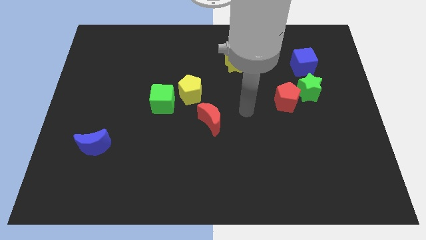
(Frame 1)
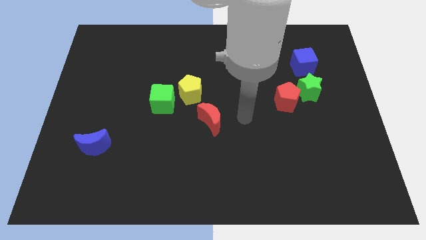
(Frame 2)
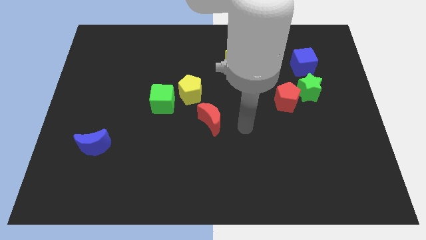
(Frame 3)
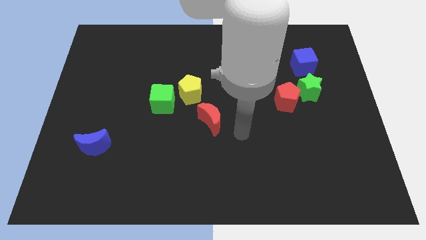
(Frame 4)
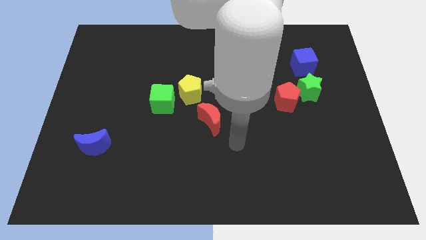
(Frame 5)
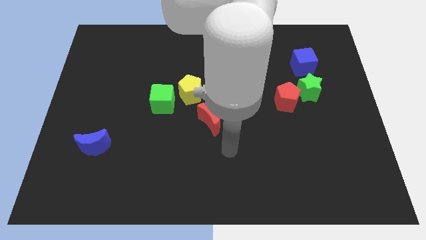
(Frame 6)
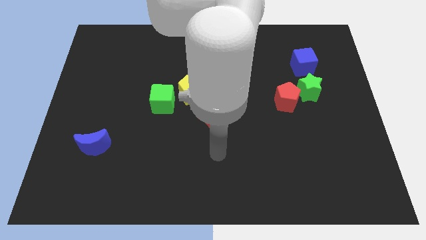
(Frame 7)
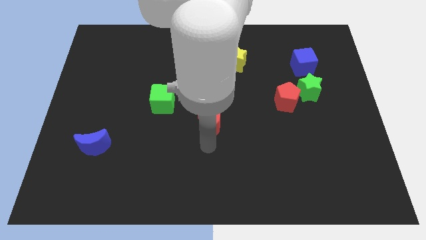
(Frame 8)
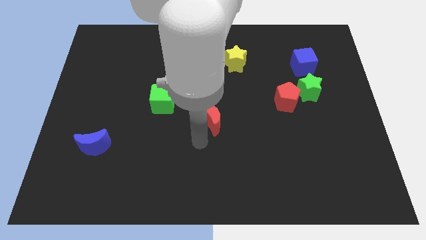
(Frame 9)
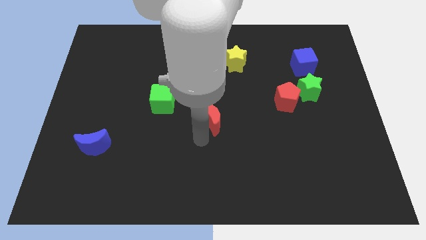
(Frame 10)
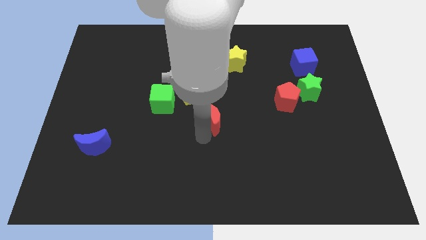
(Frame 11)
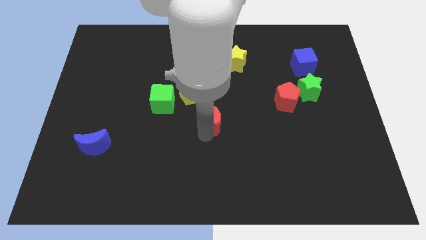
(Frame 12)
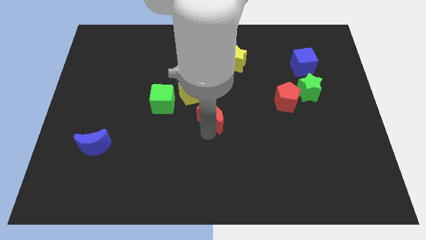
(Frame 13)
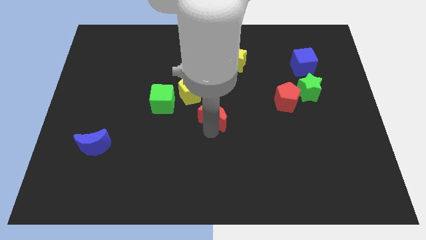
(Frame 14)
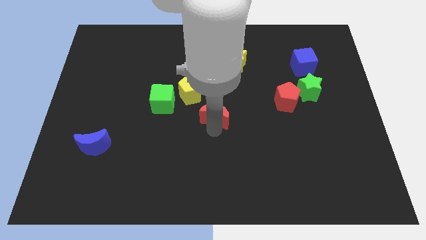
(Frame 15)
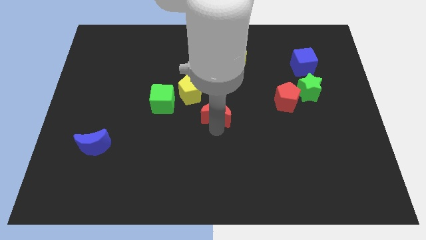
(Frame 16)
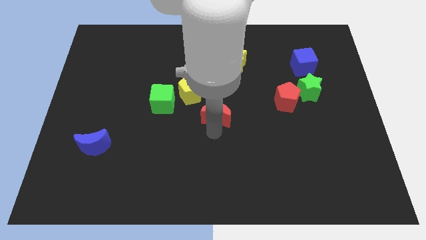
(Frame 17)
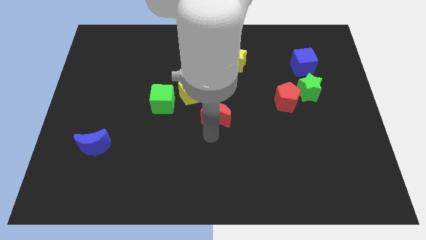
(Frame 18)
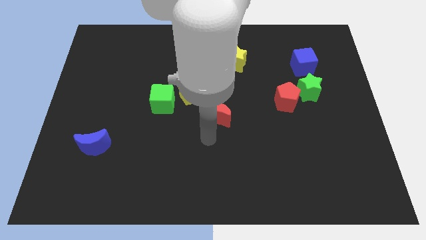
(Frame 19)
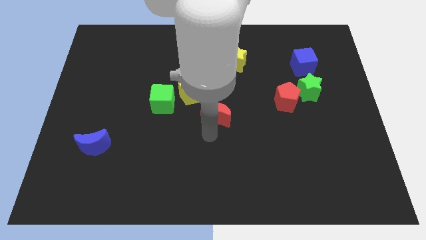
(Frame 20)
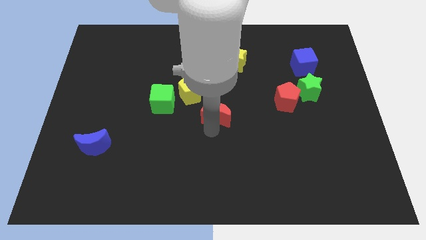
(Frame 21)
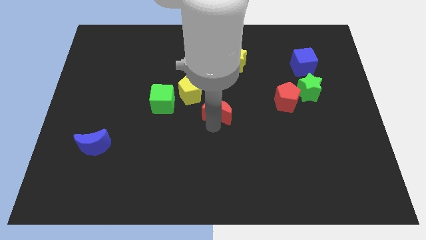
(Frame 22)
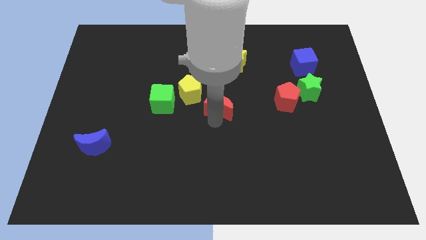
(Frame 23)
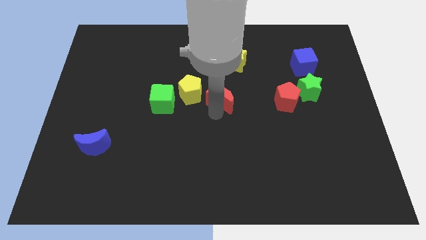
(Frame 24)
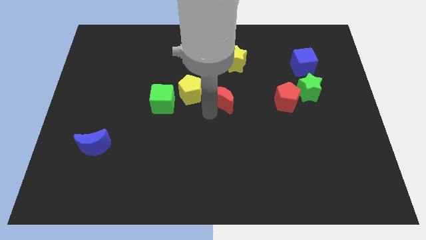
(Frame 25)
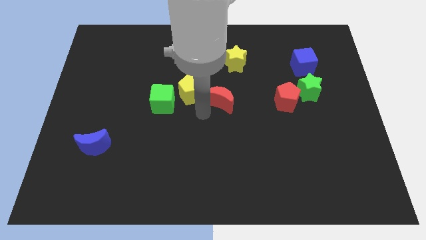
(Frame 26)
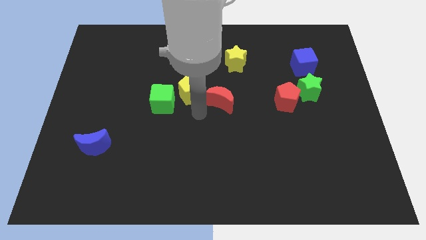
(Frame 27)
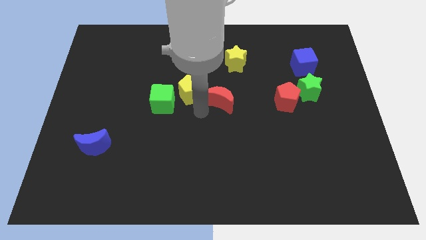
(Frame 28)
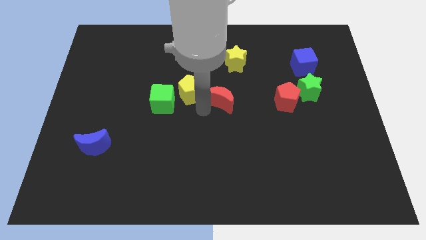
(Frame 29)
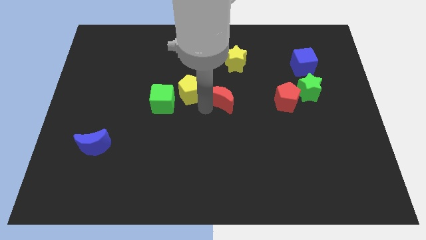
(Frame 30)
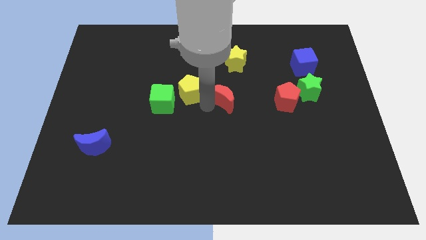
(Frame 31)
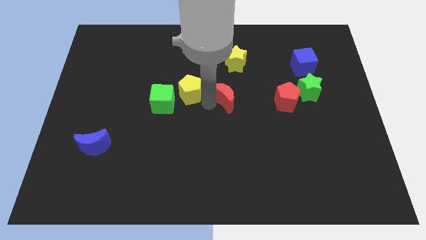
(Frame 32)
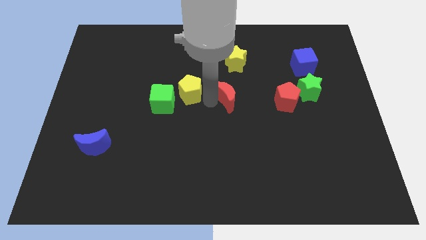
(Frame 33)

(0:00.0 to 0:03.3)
slide the red moon a little bit diagonally up and right

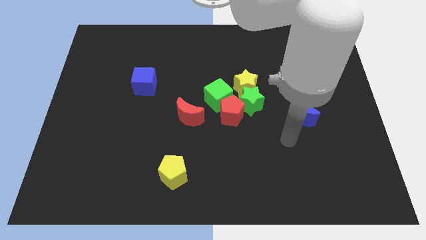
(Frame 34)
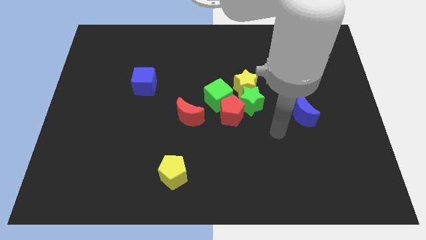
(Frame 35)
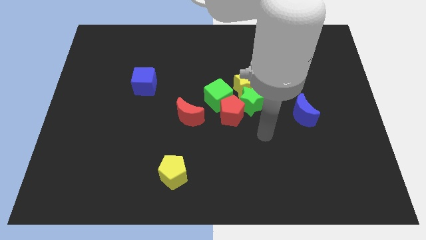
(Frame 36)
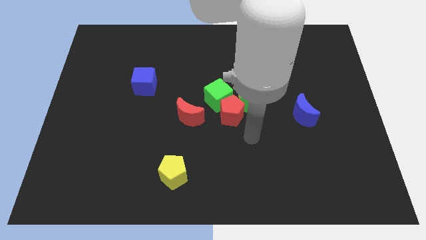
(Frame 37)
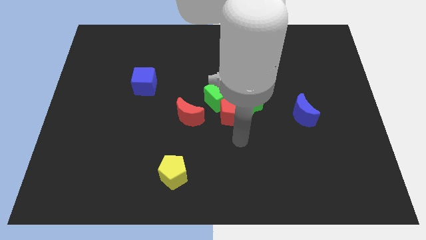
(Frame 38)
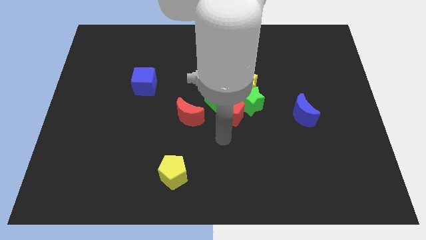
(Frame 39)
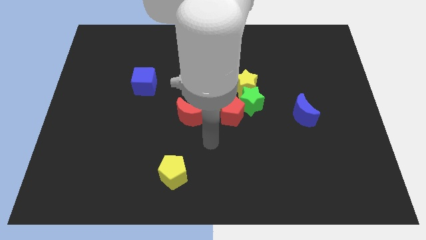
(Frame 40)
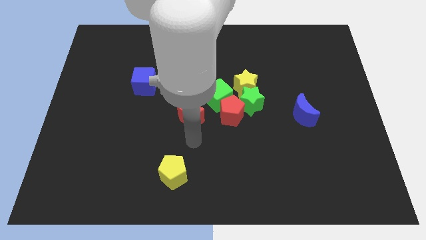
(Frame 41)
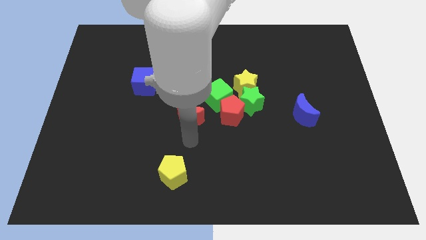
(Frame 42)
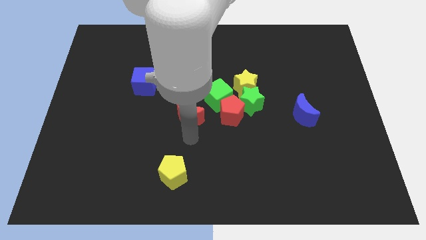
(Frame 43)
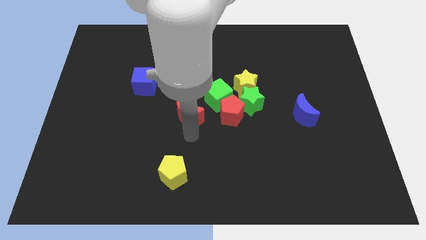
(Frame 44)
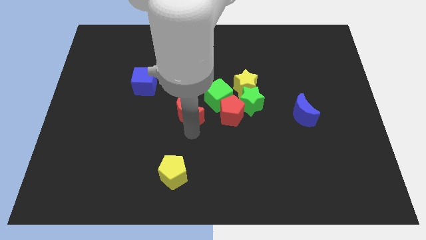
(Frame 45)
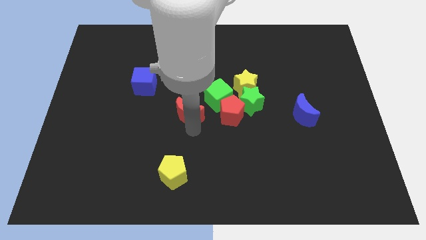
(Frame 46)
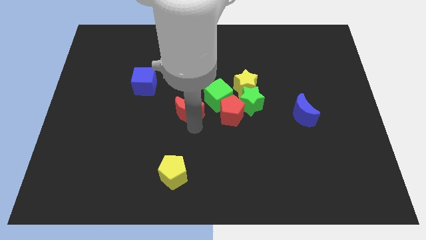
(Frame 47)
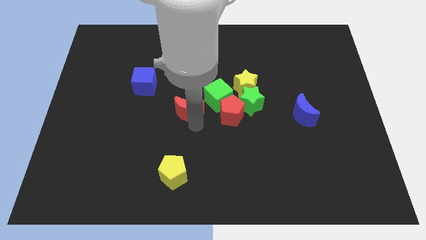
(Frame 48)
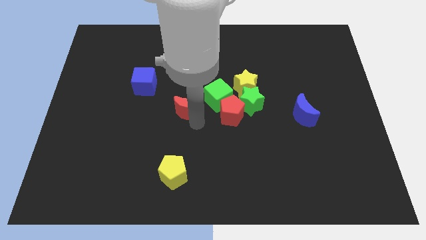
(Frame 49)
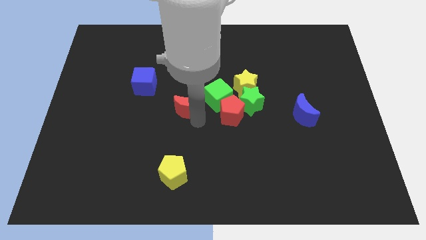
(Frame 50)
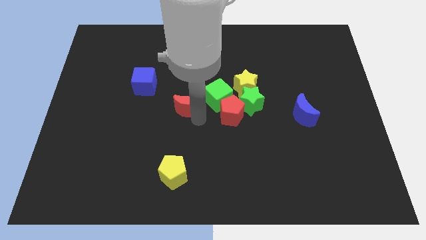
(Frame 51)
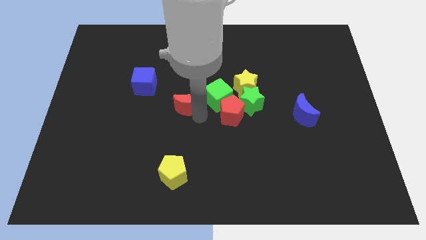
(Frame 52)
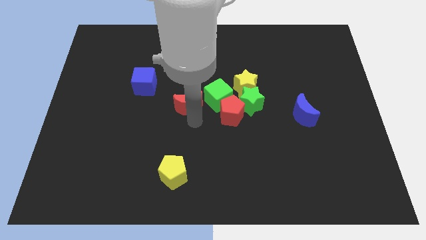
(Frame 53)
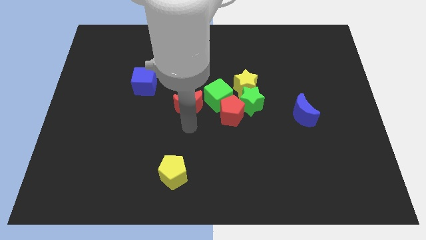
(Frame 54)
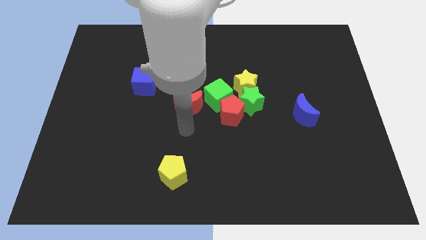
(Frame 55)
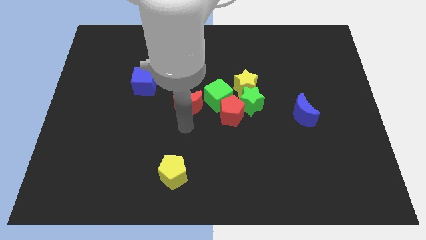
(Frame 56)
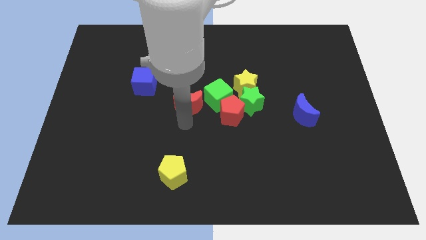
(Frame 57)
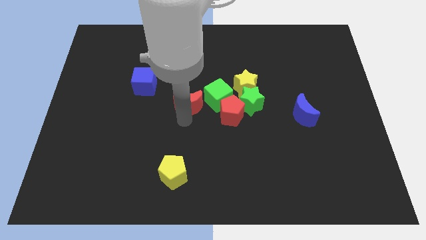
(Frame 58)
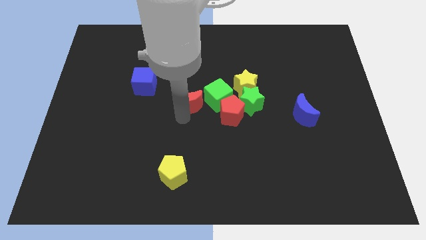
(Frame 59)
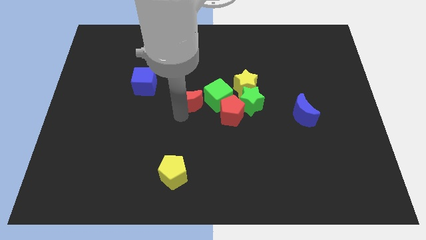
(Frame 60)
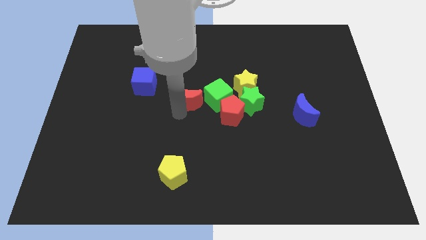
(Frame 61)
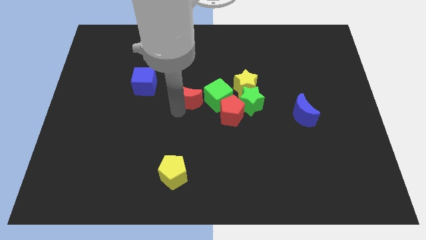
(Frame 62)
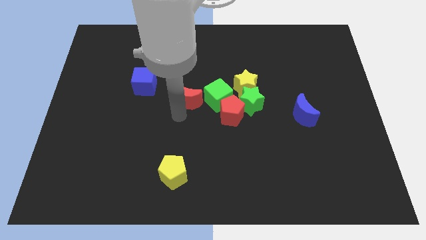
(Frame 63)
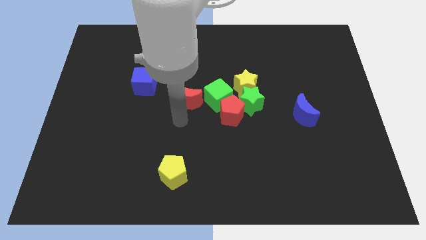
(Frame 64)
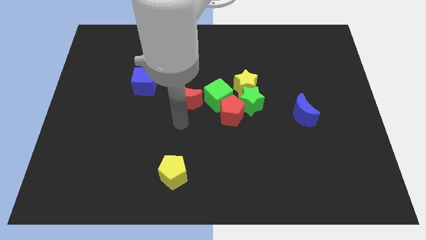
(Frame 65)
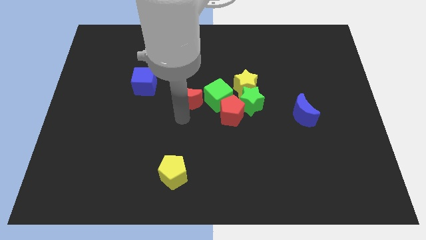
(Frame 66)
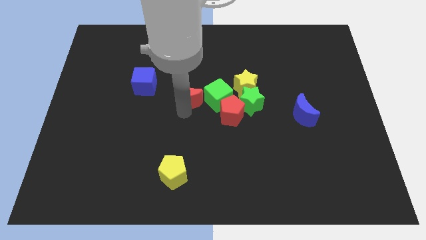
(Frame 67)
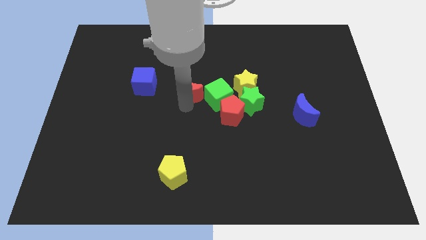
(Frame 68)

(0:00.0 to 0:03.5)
slightly push the red moon up

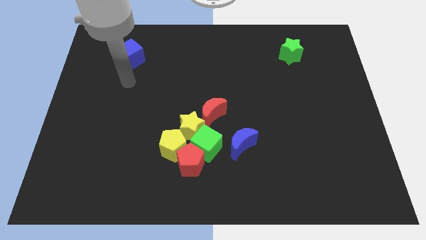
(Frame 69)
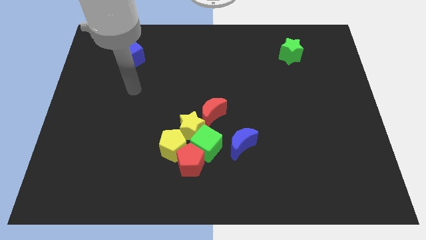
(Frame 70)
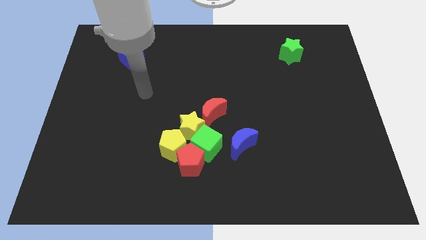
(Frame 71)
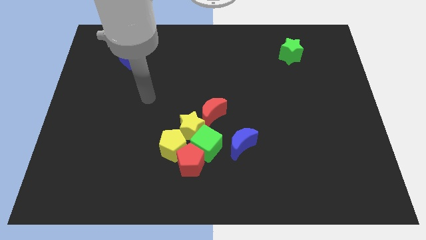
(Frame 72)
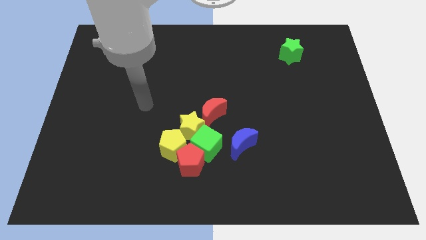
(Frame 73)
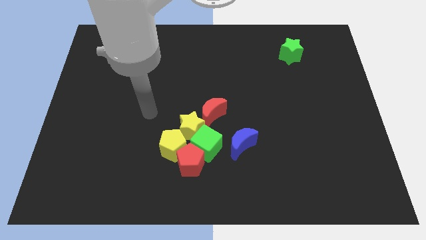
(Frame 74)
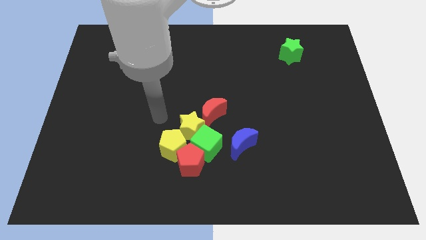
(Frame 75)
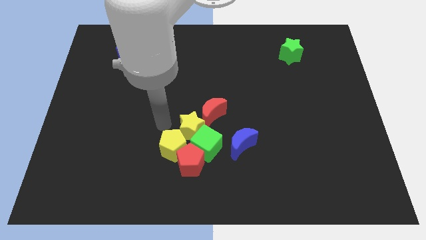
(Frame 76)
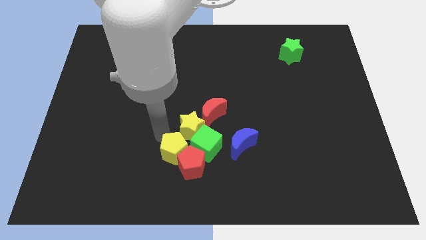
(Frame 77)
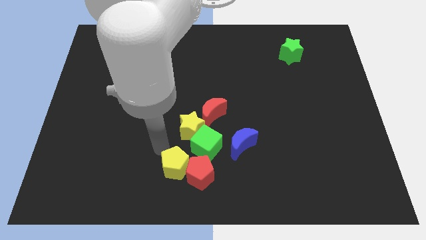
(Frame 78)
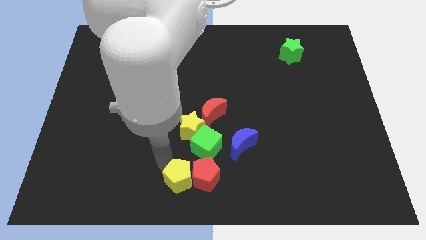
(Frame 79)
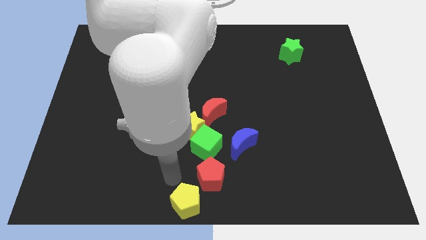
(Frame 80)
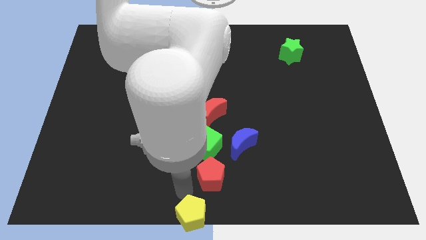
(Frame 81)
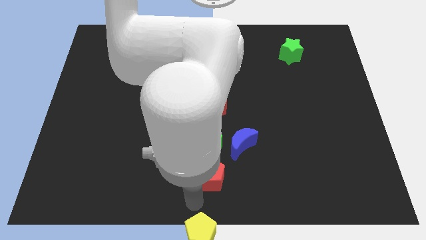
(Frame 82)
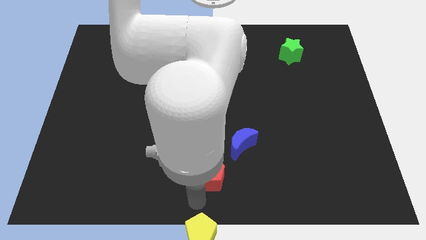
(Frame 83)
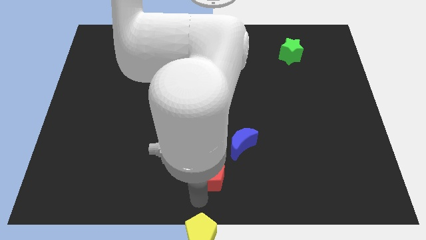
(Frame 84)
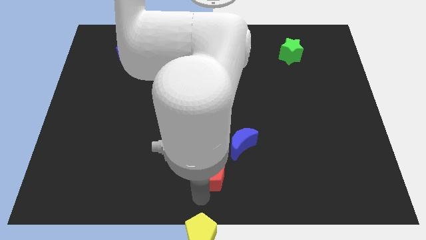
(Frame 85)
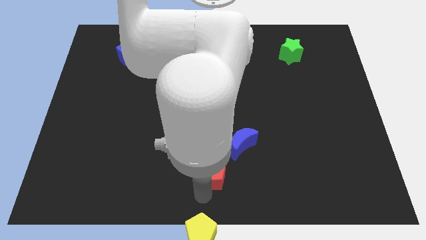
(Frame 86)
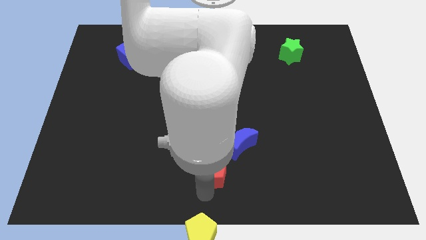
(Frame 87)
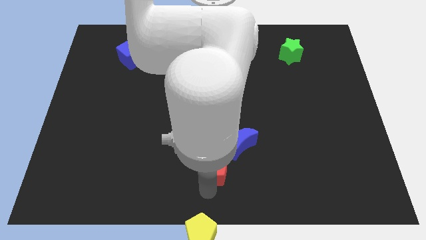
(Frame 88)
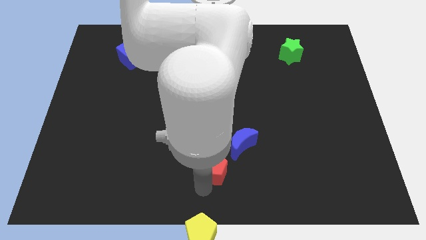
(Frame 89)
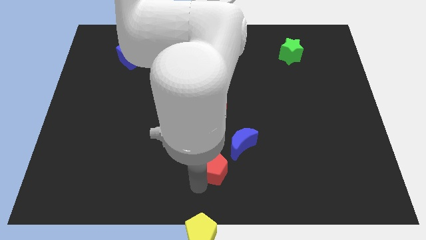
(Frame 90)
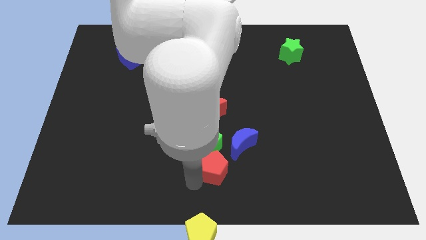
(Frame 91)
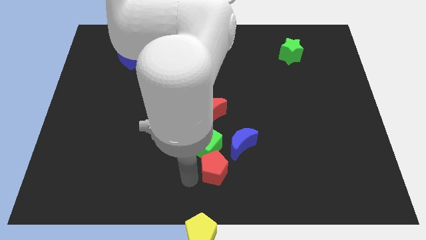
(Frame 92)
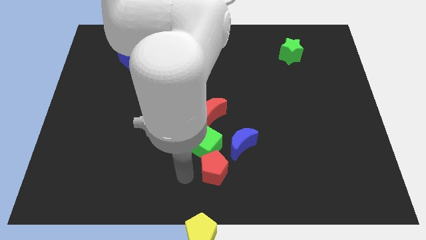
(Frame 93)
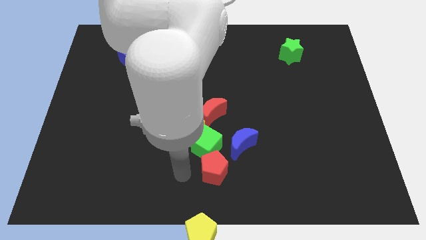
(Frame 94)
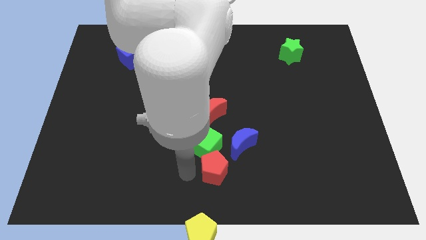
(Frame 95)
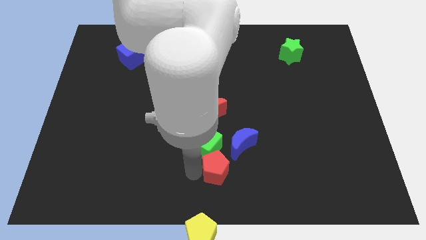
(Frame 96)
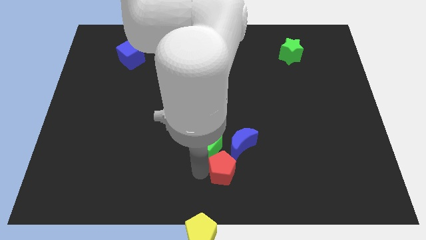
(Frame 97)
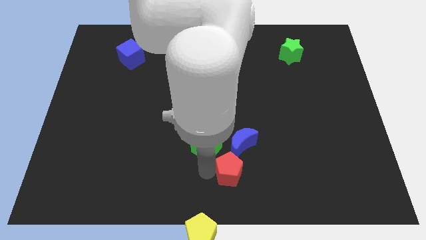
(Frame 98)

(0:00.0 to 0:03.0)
push the red pentagon to the right slightly
